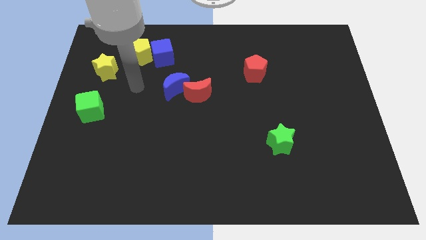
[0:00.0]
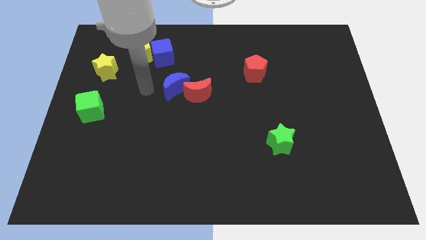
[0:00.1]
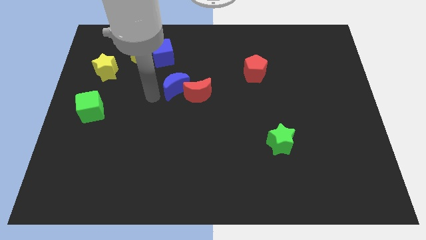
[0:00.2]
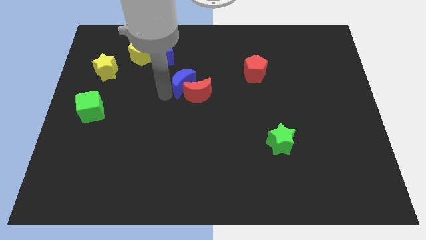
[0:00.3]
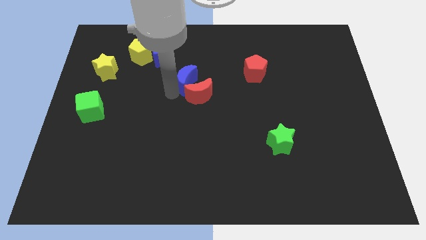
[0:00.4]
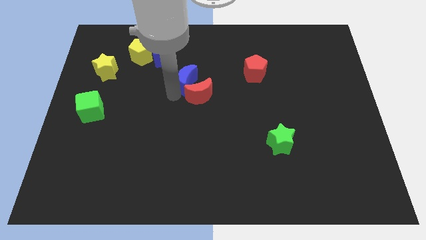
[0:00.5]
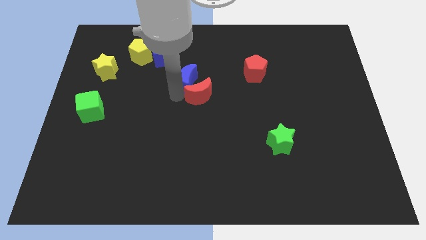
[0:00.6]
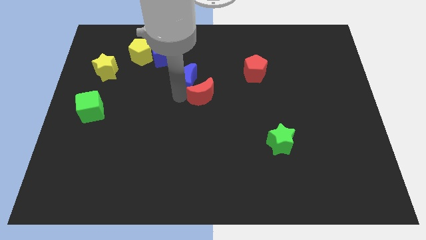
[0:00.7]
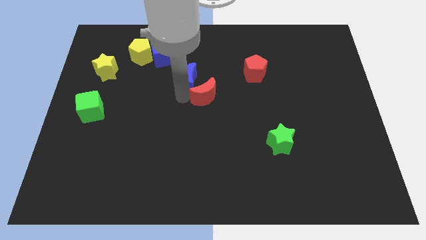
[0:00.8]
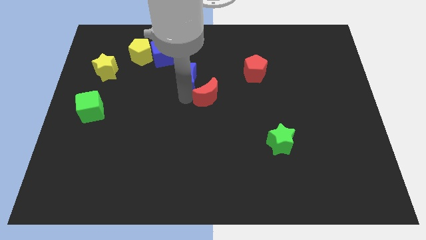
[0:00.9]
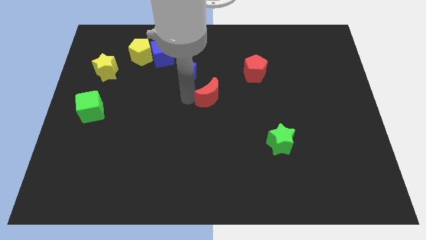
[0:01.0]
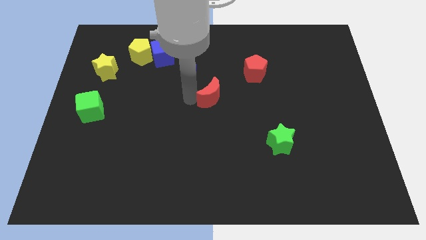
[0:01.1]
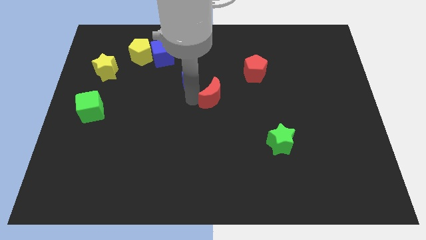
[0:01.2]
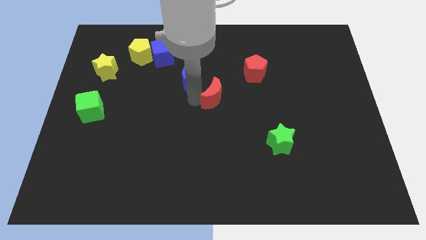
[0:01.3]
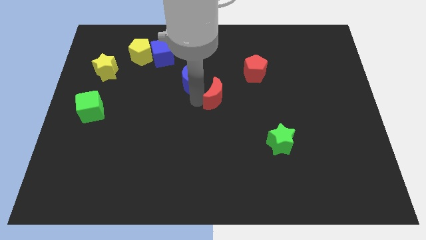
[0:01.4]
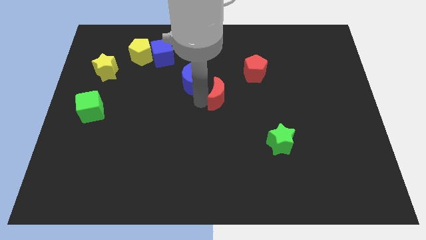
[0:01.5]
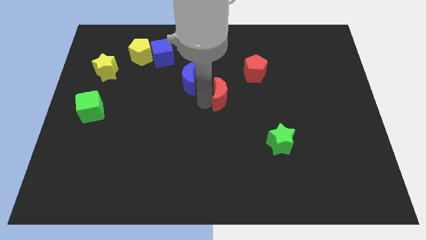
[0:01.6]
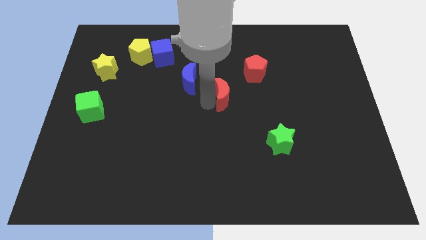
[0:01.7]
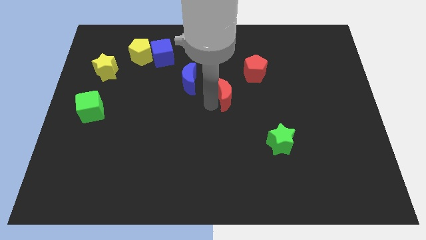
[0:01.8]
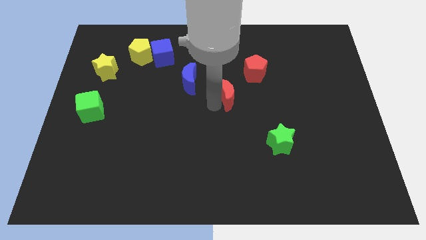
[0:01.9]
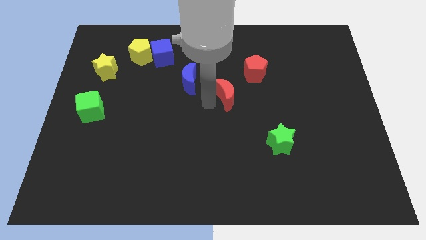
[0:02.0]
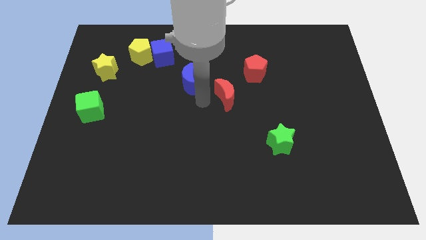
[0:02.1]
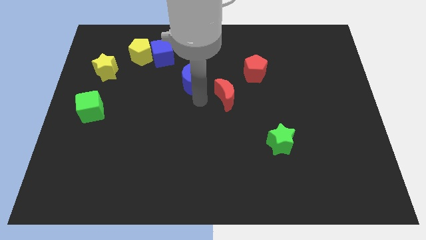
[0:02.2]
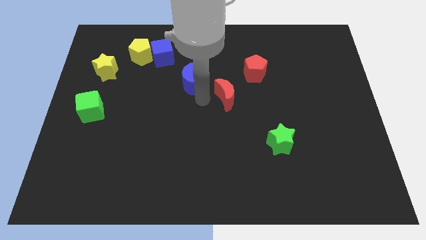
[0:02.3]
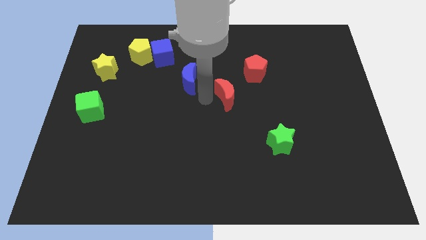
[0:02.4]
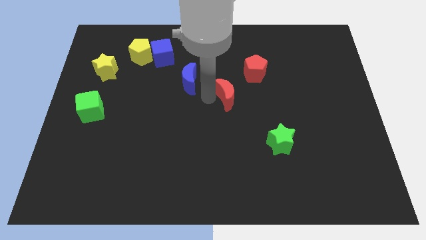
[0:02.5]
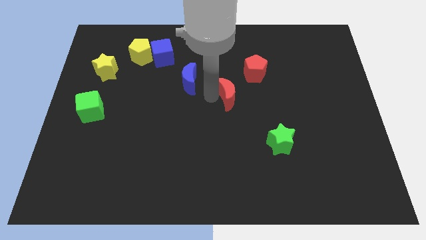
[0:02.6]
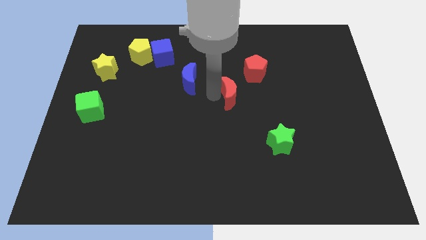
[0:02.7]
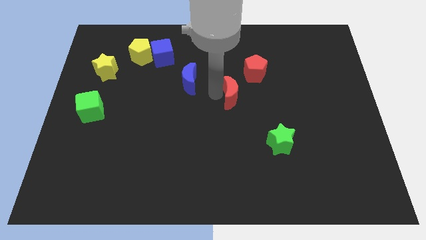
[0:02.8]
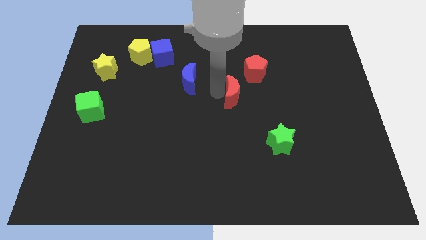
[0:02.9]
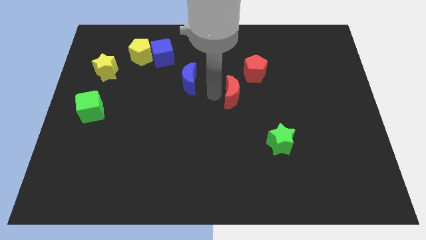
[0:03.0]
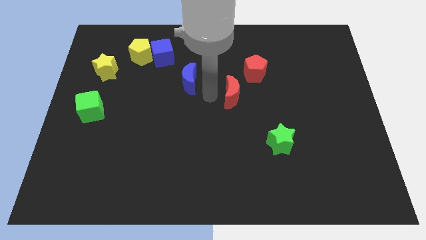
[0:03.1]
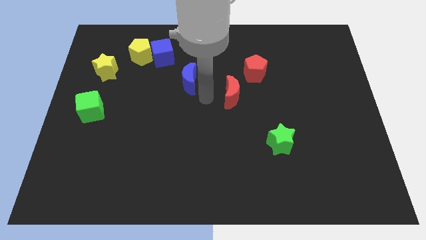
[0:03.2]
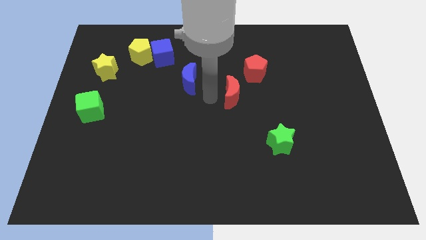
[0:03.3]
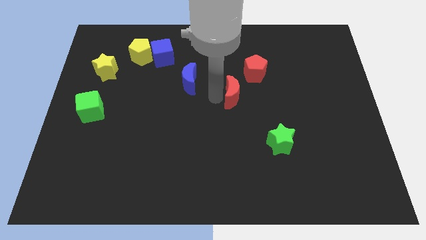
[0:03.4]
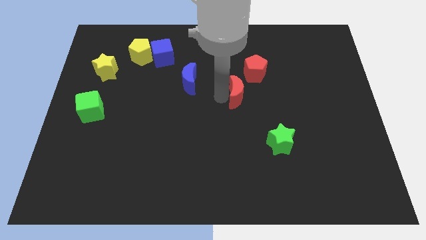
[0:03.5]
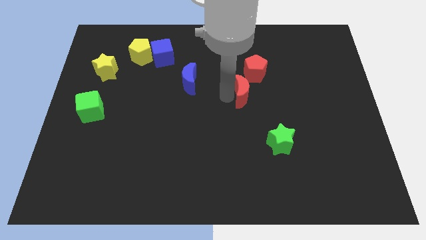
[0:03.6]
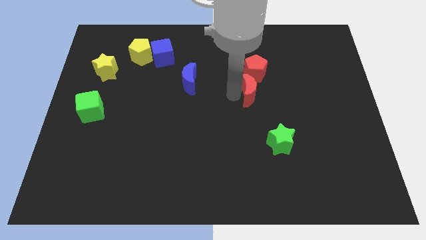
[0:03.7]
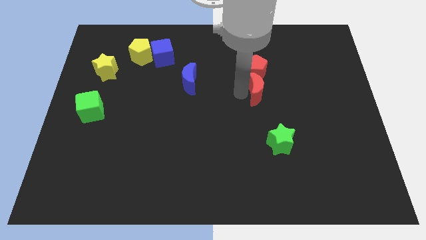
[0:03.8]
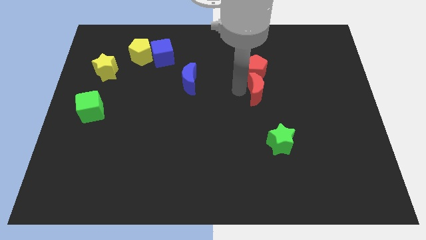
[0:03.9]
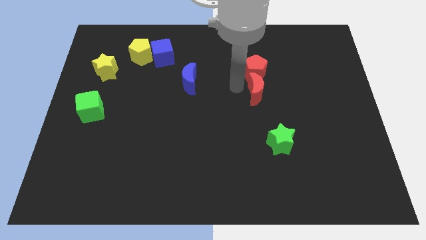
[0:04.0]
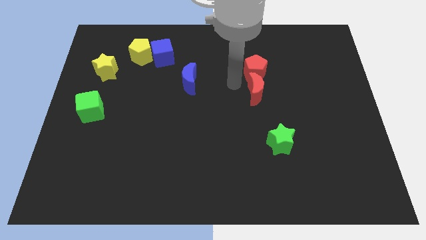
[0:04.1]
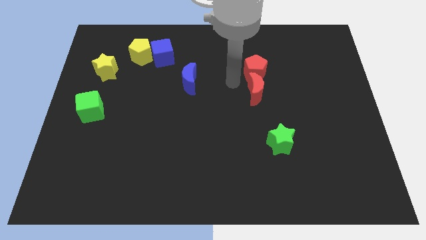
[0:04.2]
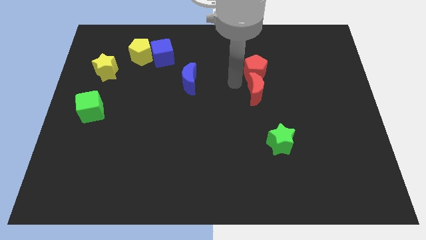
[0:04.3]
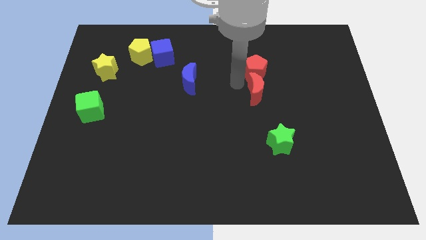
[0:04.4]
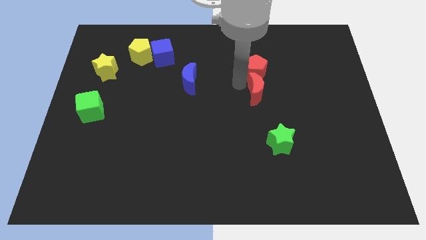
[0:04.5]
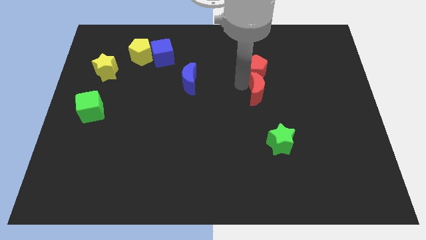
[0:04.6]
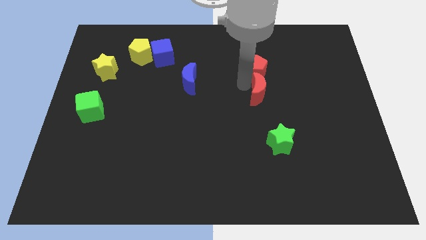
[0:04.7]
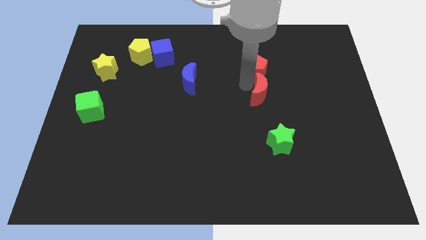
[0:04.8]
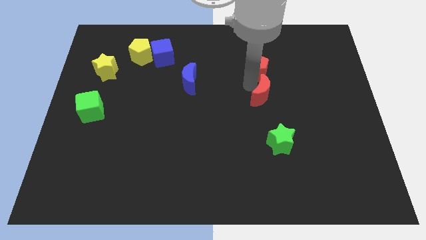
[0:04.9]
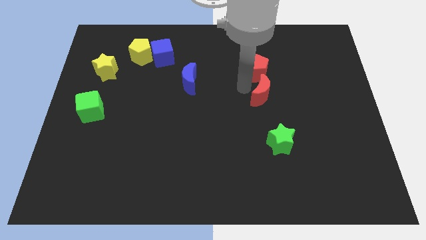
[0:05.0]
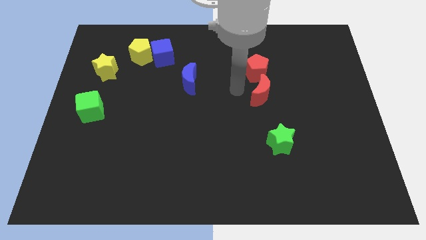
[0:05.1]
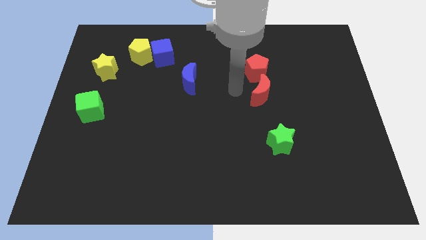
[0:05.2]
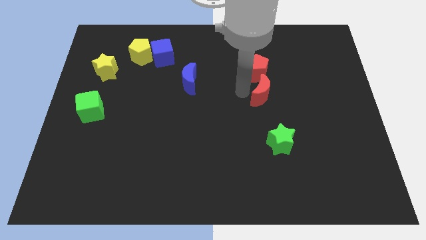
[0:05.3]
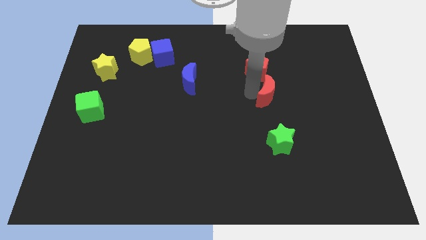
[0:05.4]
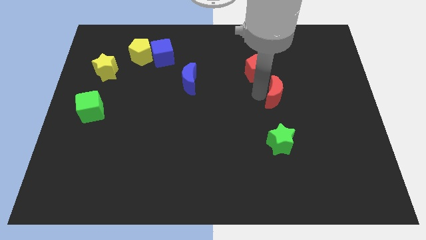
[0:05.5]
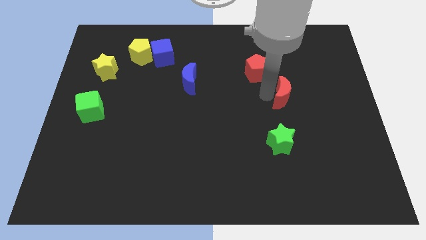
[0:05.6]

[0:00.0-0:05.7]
move the red moon right

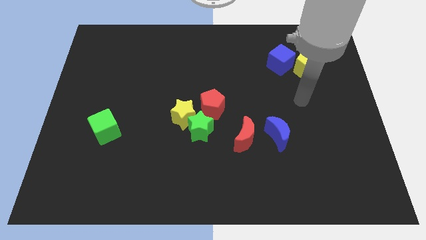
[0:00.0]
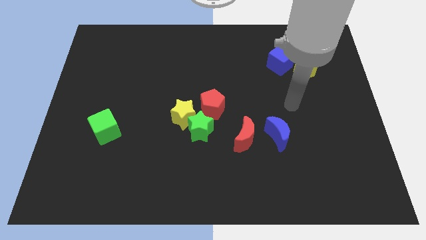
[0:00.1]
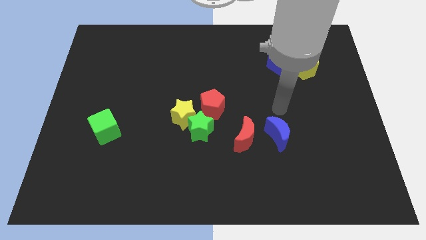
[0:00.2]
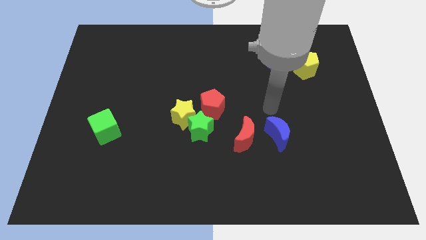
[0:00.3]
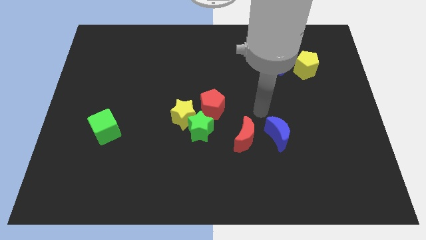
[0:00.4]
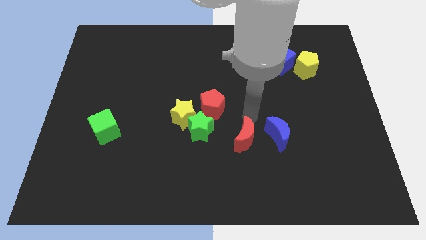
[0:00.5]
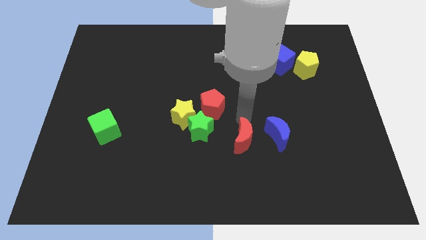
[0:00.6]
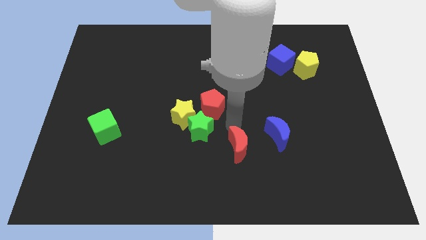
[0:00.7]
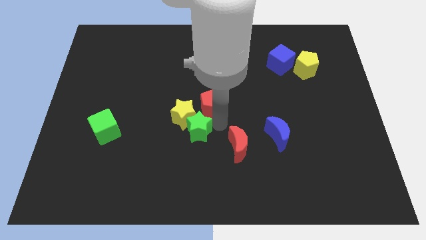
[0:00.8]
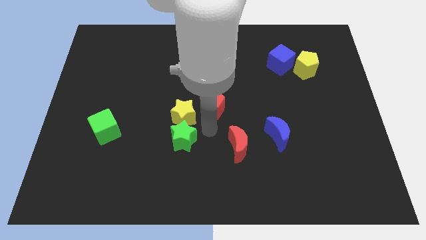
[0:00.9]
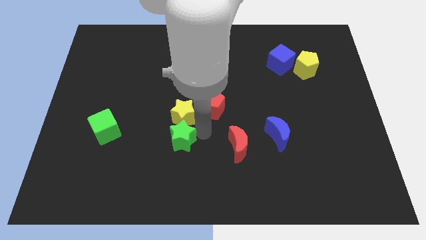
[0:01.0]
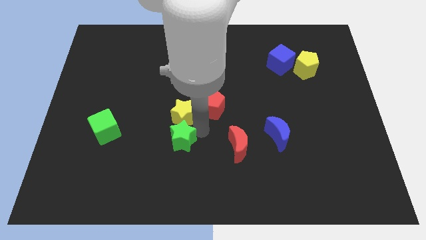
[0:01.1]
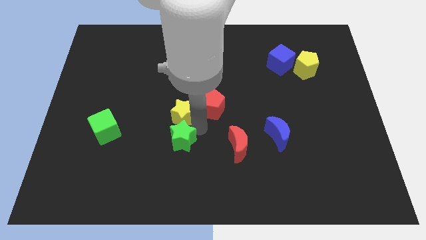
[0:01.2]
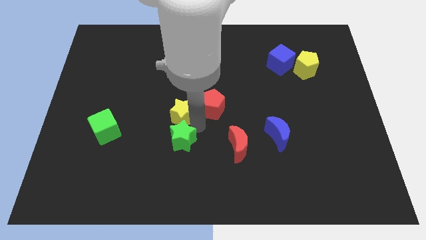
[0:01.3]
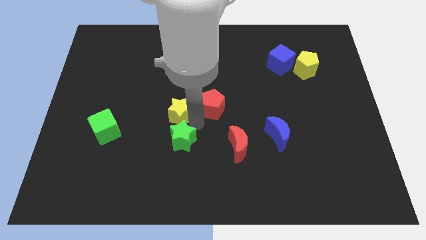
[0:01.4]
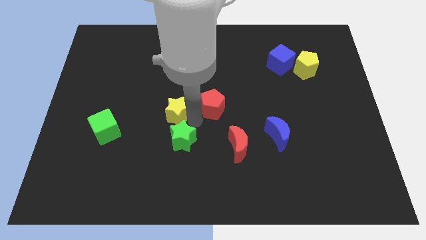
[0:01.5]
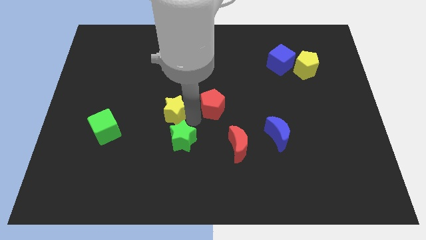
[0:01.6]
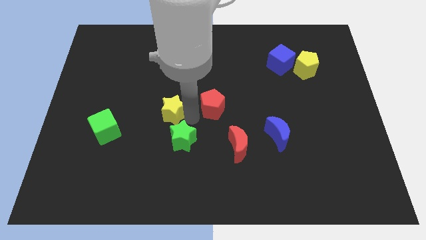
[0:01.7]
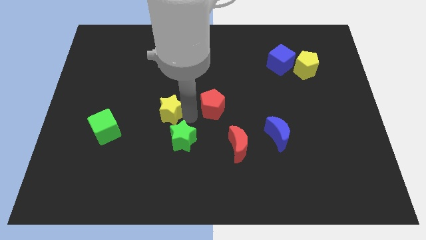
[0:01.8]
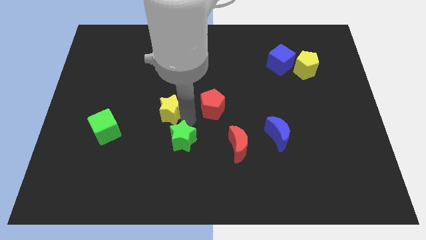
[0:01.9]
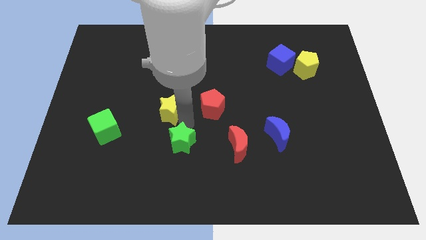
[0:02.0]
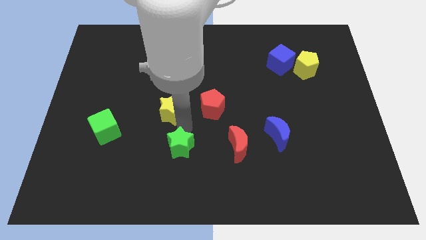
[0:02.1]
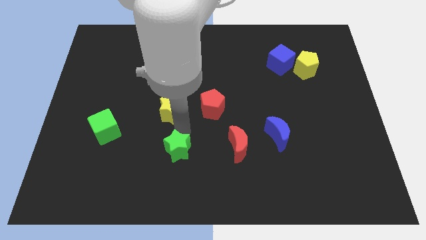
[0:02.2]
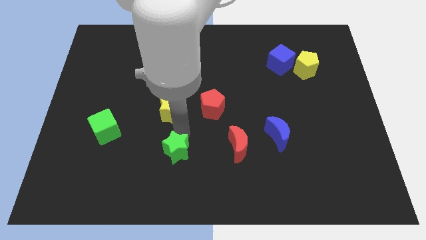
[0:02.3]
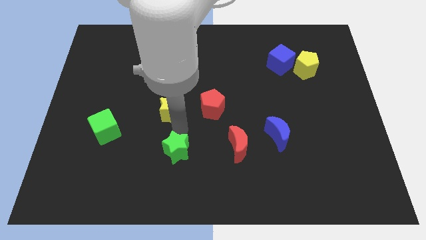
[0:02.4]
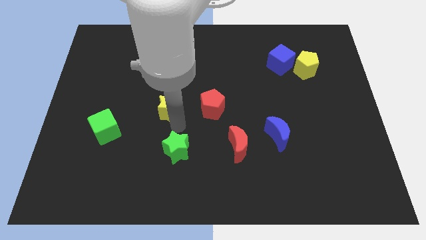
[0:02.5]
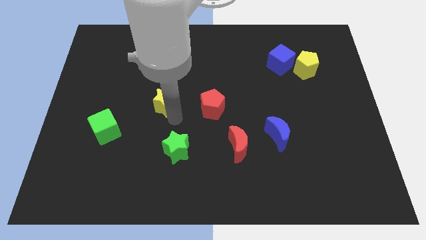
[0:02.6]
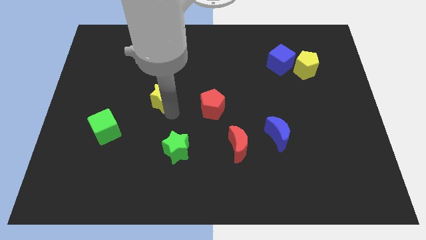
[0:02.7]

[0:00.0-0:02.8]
move the yellow star a little bit upwards and then left
